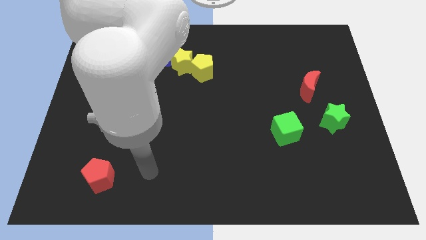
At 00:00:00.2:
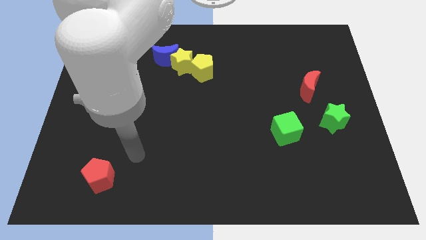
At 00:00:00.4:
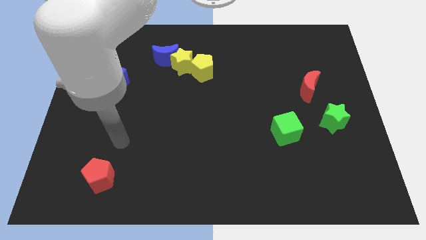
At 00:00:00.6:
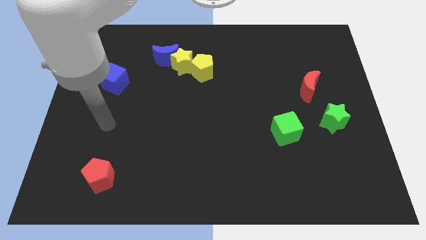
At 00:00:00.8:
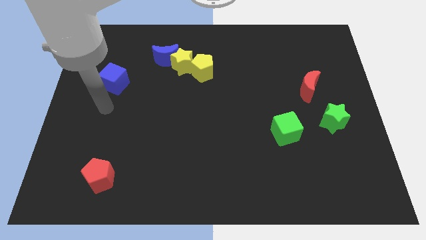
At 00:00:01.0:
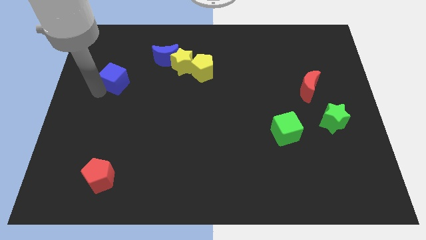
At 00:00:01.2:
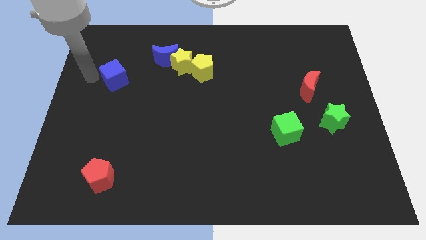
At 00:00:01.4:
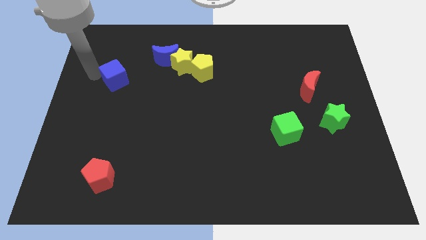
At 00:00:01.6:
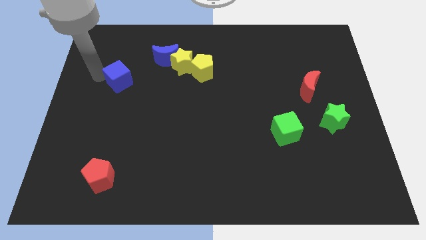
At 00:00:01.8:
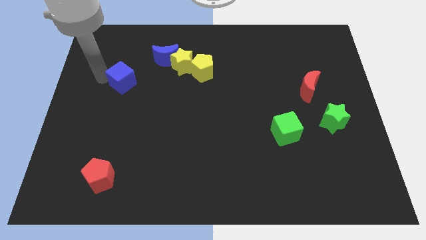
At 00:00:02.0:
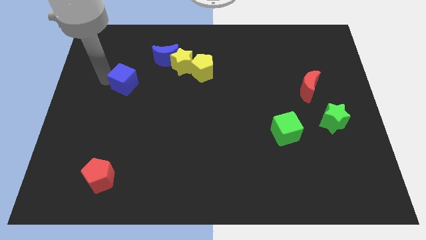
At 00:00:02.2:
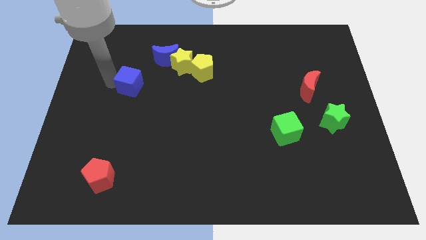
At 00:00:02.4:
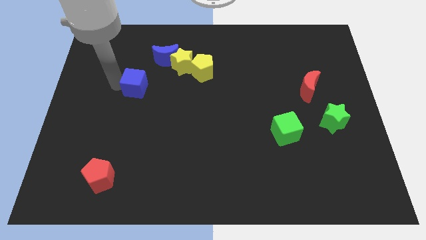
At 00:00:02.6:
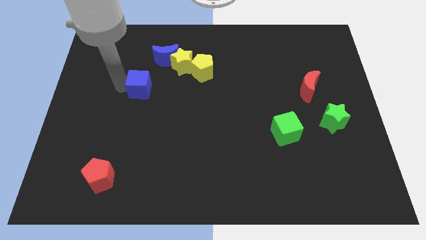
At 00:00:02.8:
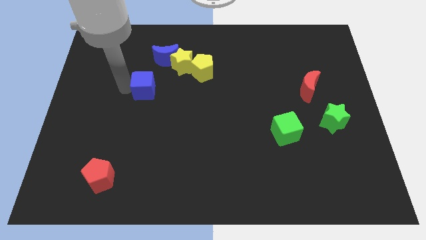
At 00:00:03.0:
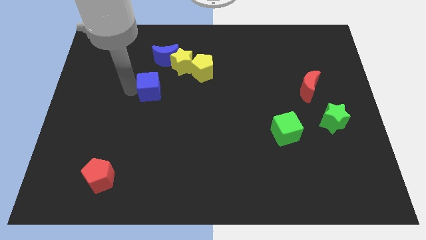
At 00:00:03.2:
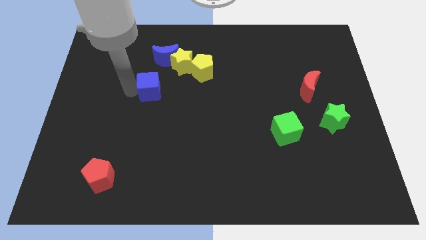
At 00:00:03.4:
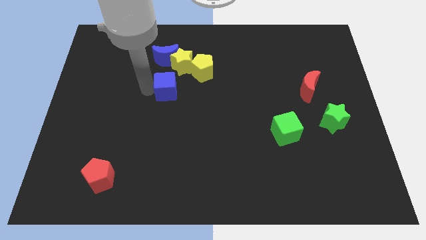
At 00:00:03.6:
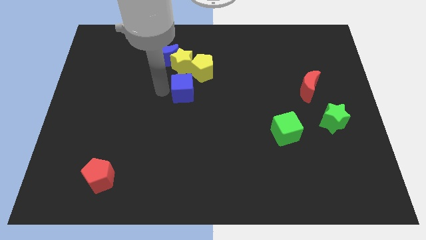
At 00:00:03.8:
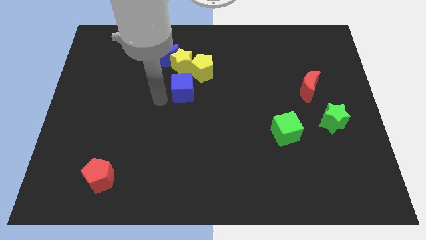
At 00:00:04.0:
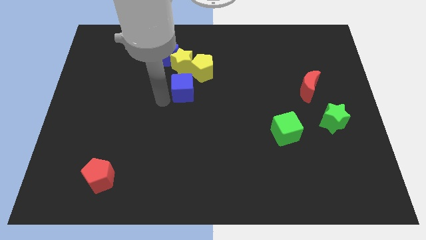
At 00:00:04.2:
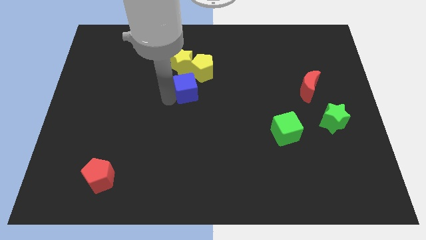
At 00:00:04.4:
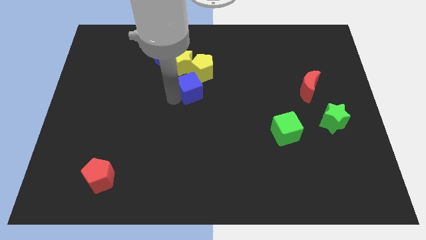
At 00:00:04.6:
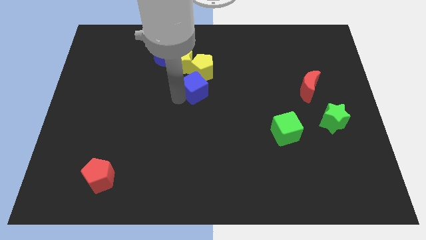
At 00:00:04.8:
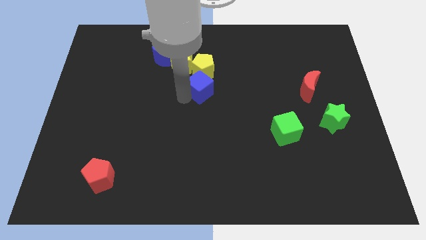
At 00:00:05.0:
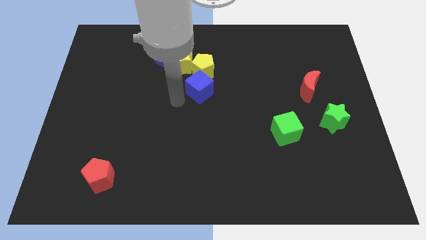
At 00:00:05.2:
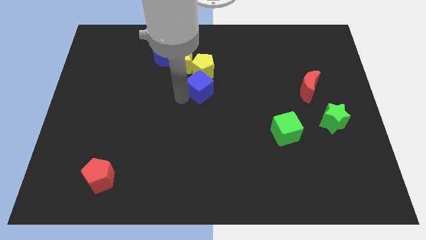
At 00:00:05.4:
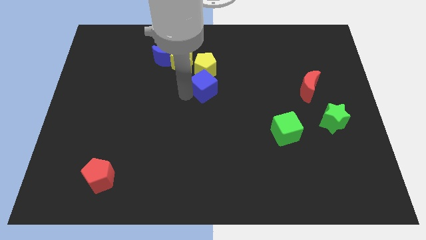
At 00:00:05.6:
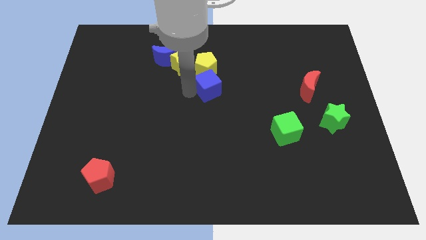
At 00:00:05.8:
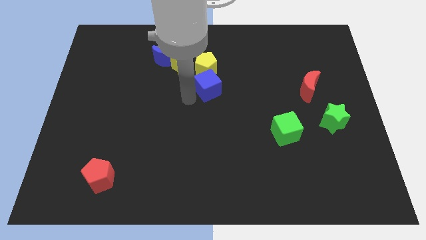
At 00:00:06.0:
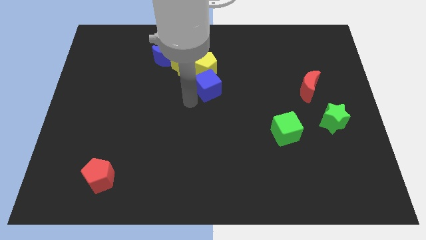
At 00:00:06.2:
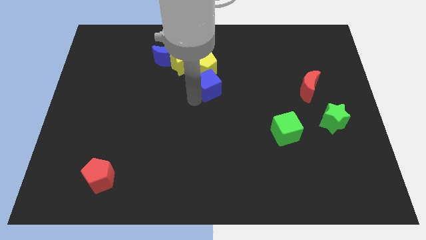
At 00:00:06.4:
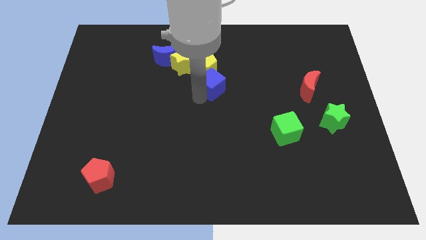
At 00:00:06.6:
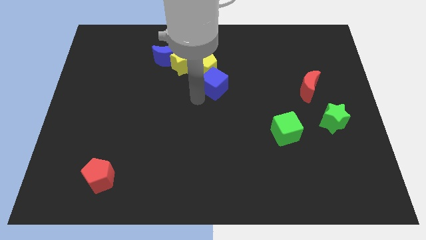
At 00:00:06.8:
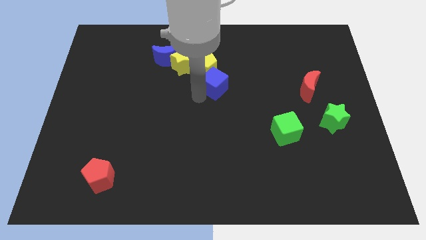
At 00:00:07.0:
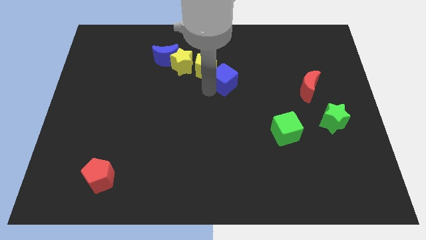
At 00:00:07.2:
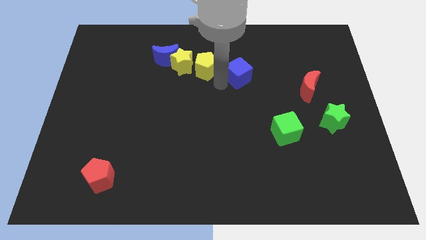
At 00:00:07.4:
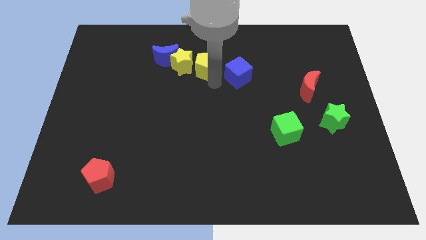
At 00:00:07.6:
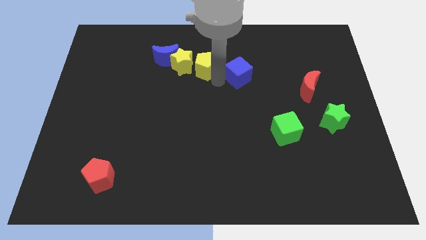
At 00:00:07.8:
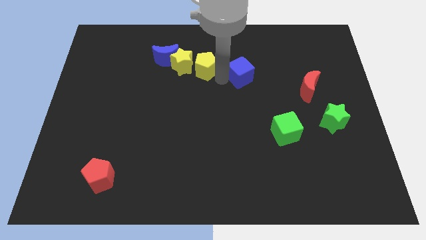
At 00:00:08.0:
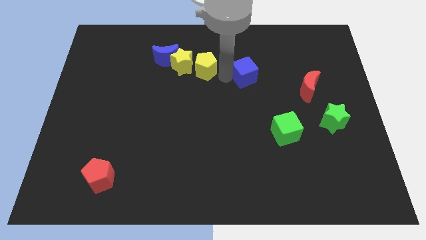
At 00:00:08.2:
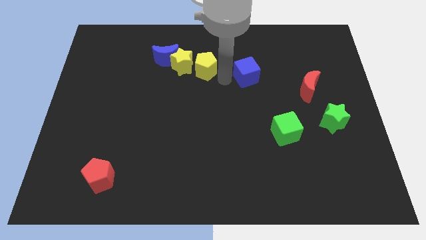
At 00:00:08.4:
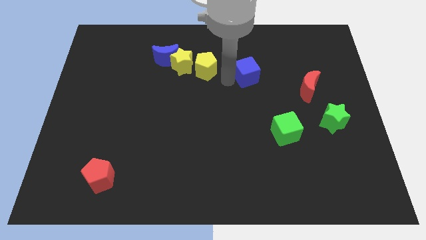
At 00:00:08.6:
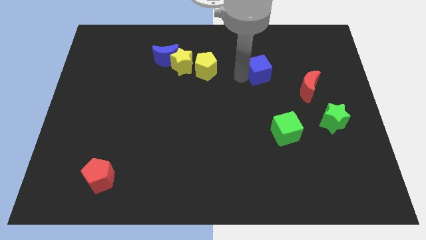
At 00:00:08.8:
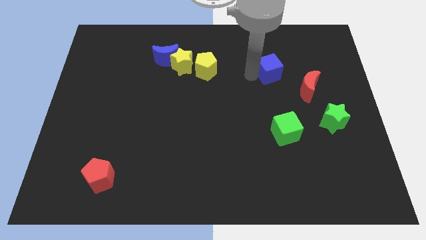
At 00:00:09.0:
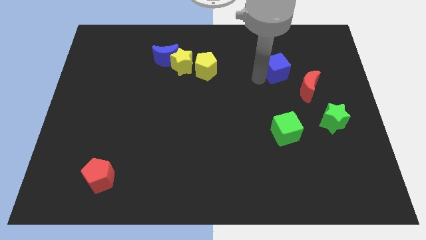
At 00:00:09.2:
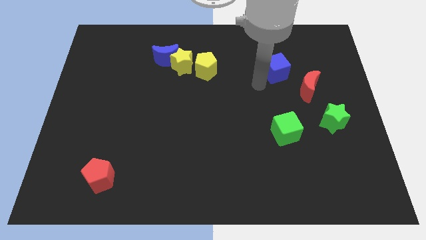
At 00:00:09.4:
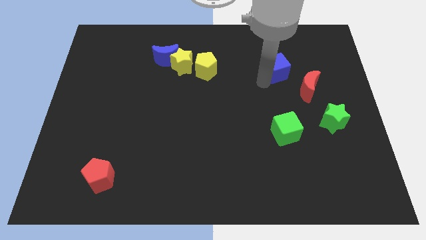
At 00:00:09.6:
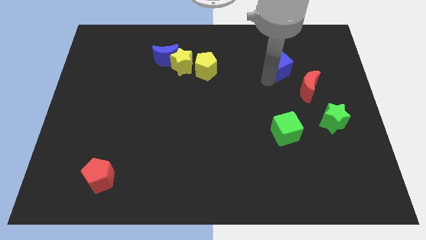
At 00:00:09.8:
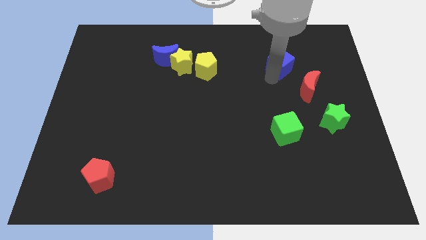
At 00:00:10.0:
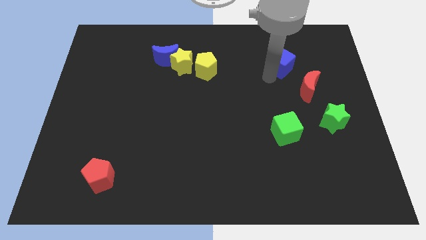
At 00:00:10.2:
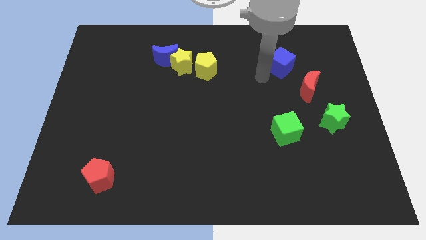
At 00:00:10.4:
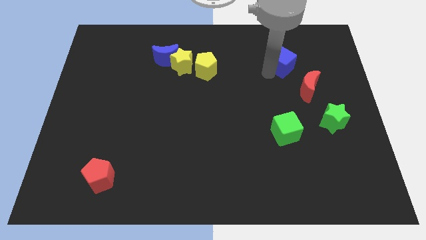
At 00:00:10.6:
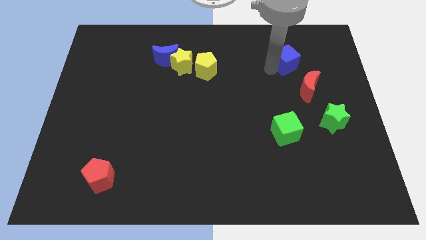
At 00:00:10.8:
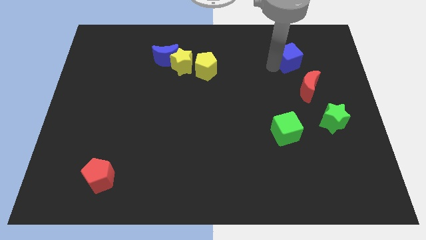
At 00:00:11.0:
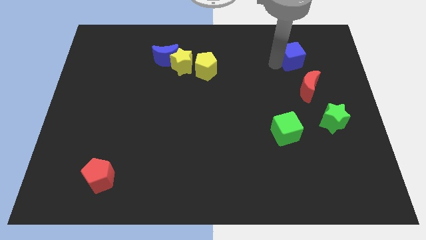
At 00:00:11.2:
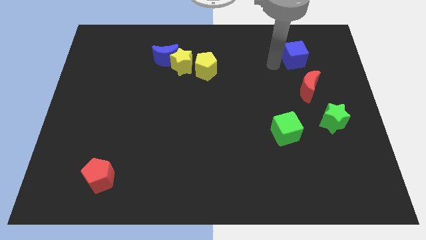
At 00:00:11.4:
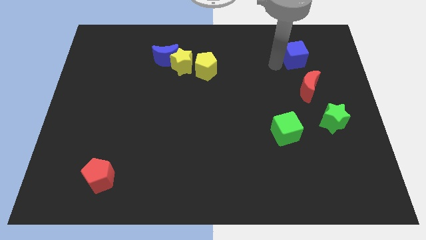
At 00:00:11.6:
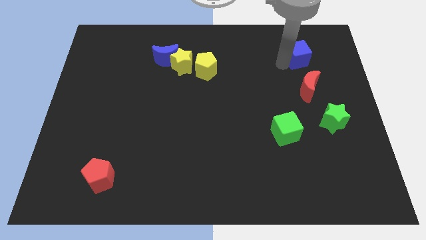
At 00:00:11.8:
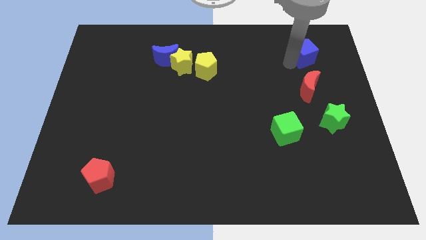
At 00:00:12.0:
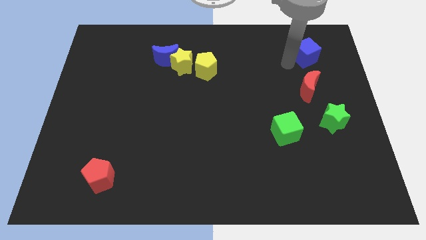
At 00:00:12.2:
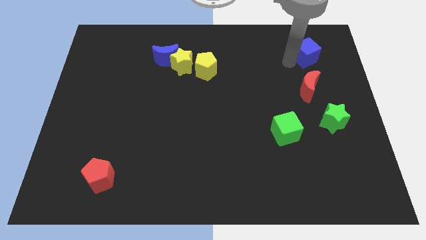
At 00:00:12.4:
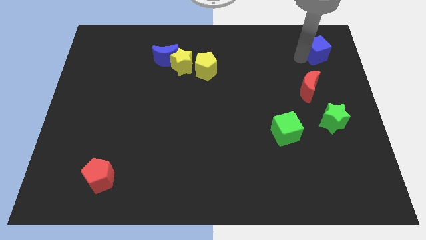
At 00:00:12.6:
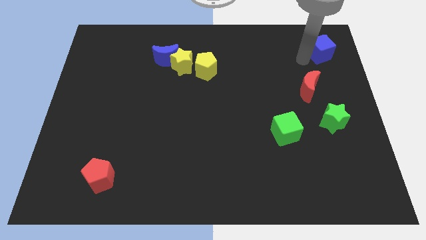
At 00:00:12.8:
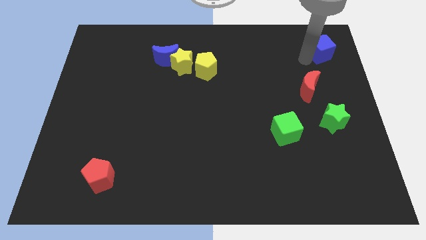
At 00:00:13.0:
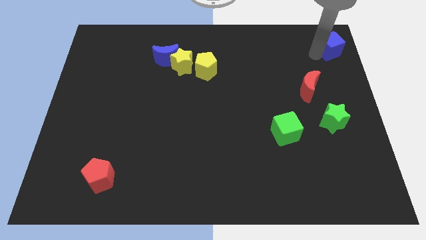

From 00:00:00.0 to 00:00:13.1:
put the blue cube to the top right of the board
